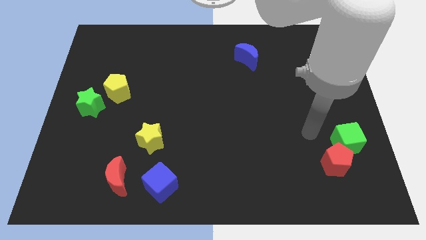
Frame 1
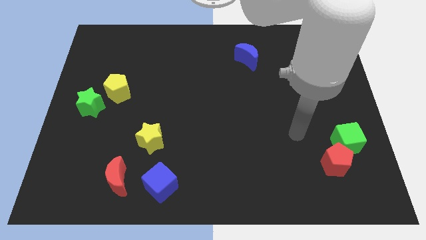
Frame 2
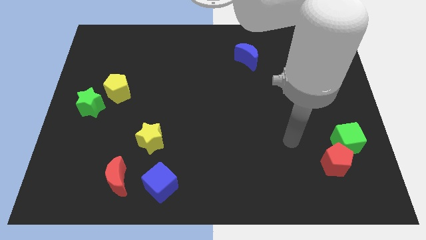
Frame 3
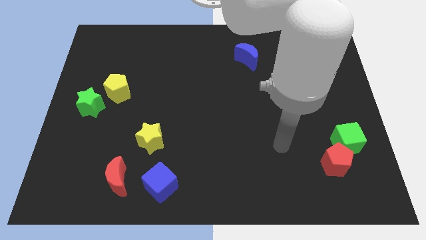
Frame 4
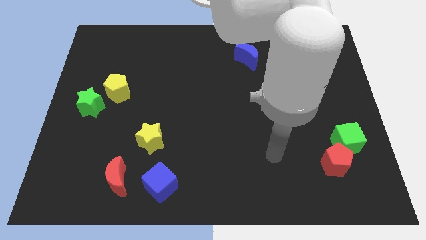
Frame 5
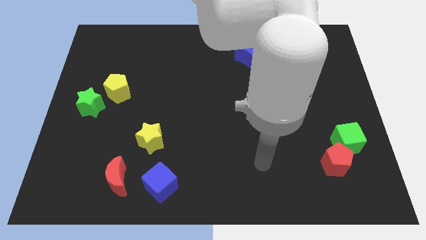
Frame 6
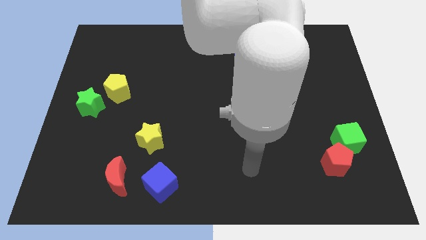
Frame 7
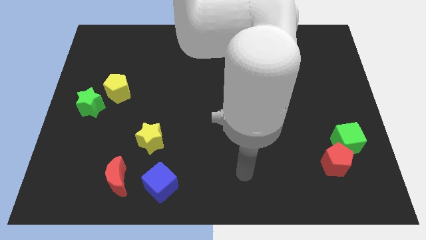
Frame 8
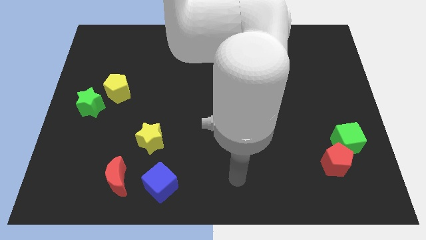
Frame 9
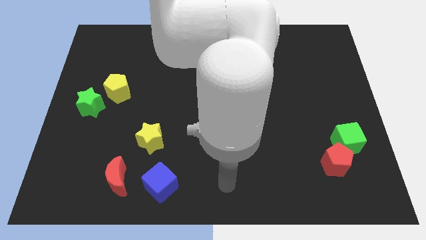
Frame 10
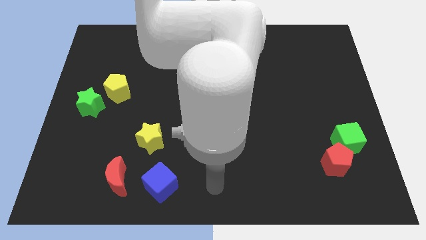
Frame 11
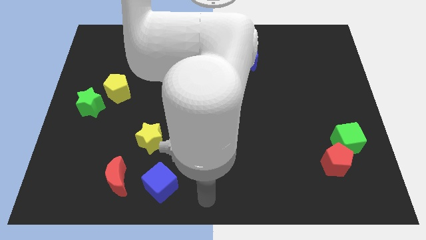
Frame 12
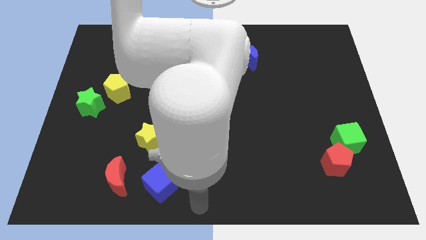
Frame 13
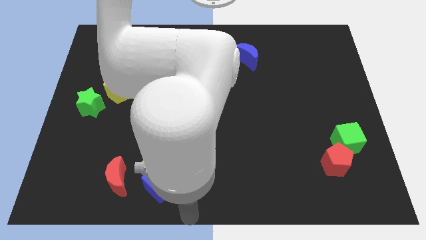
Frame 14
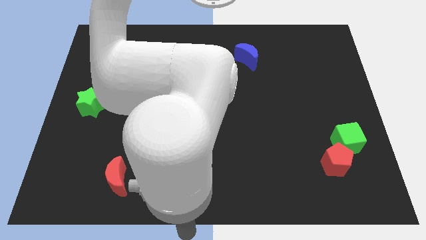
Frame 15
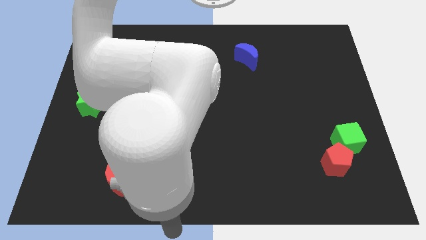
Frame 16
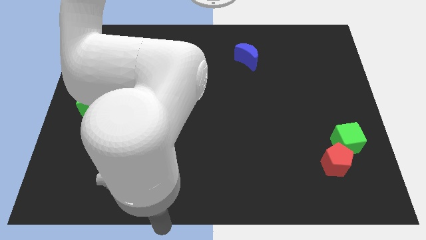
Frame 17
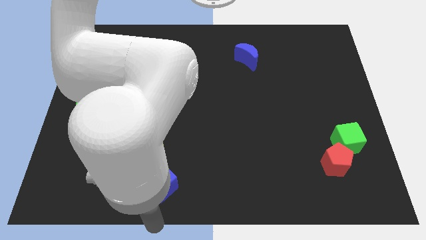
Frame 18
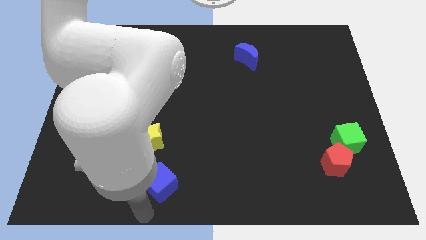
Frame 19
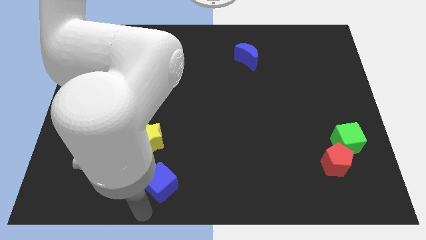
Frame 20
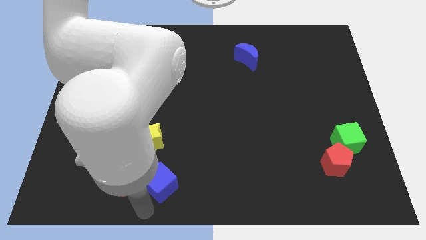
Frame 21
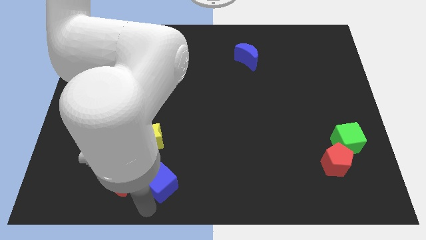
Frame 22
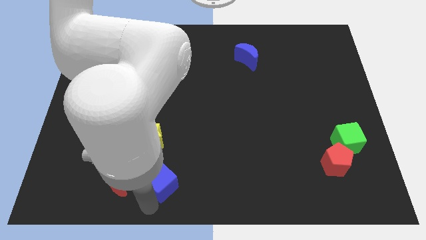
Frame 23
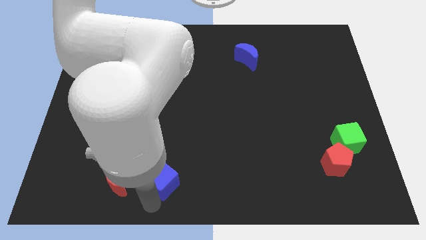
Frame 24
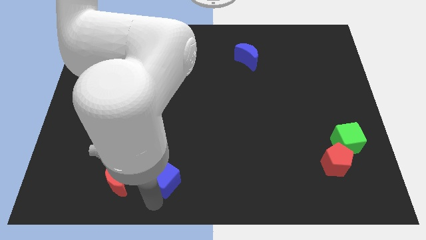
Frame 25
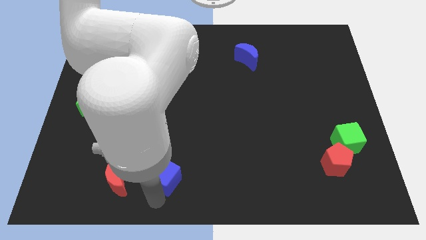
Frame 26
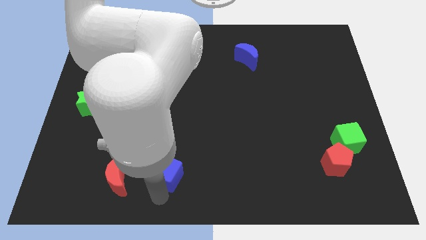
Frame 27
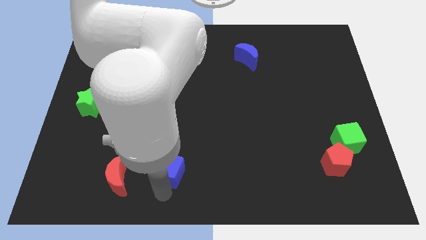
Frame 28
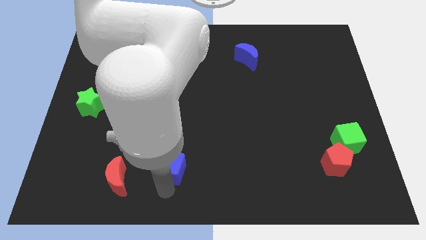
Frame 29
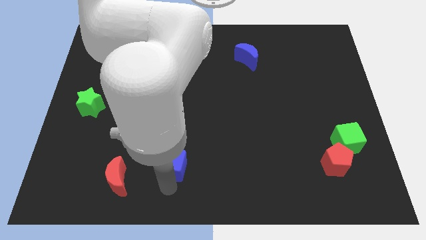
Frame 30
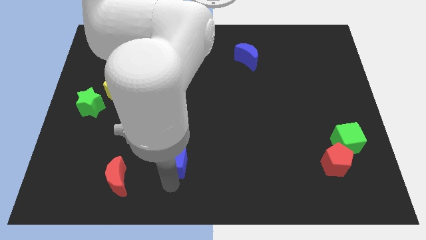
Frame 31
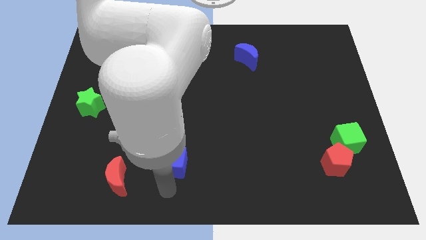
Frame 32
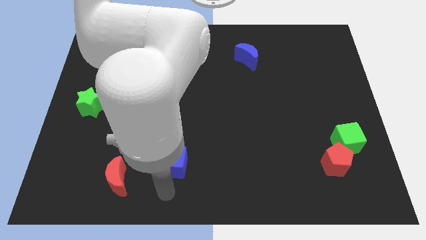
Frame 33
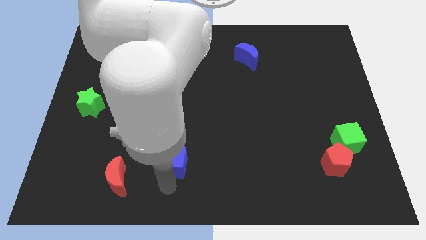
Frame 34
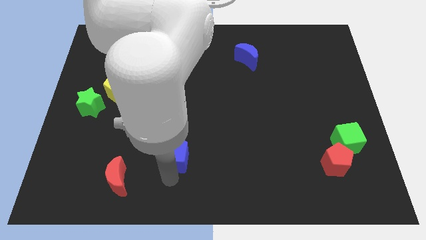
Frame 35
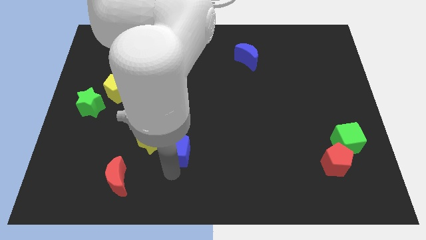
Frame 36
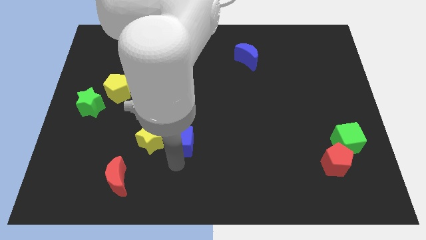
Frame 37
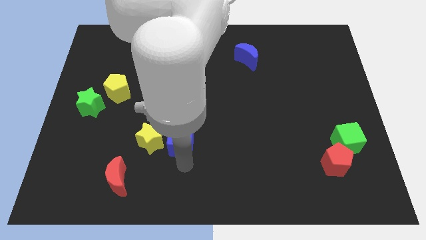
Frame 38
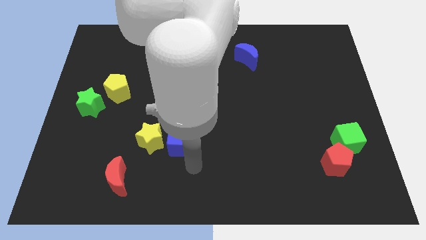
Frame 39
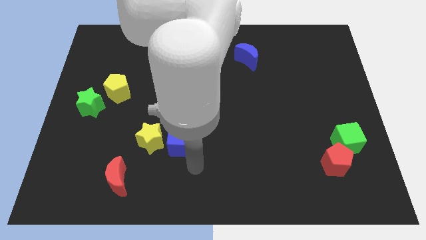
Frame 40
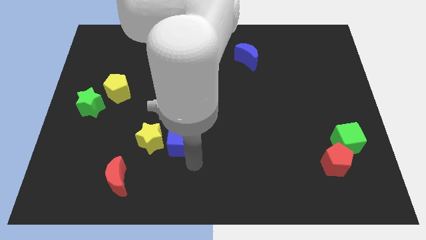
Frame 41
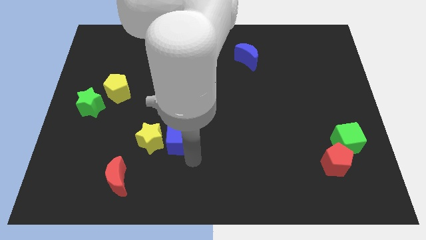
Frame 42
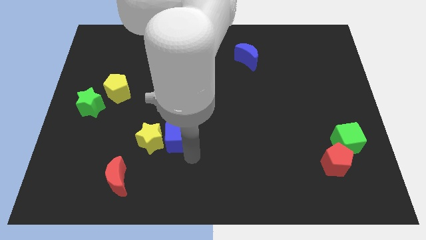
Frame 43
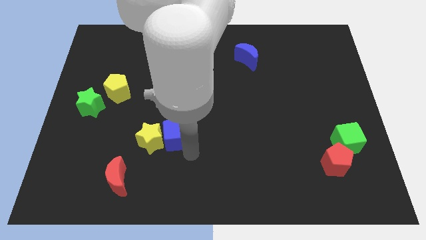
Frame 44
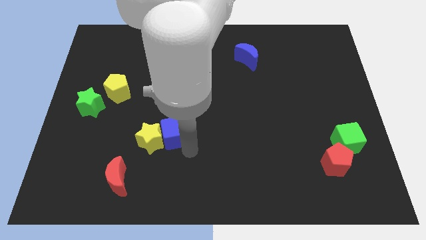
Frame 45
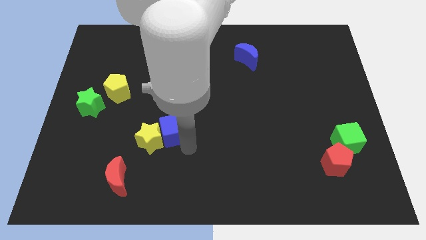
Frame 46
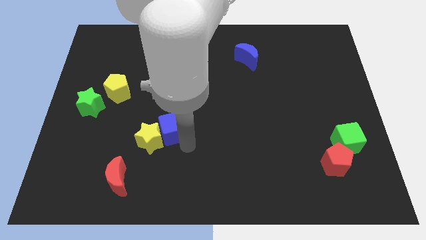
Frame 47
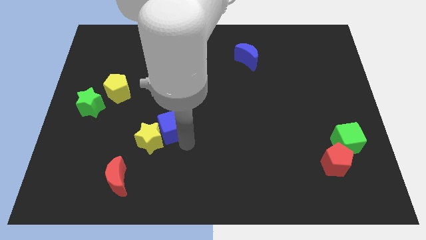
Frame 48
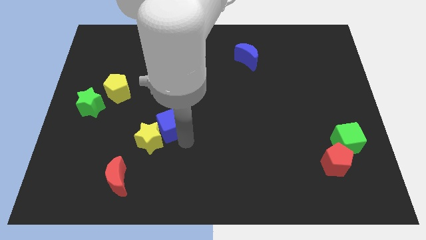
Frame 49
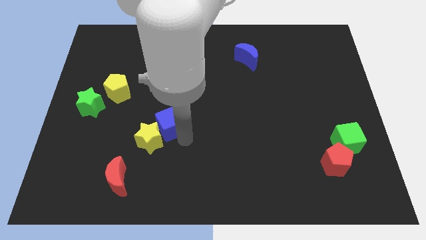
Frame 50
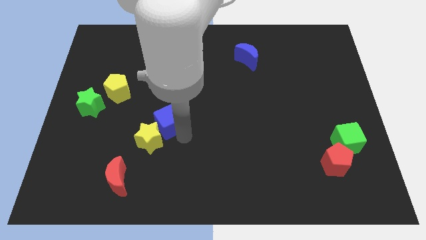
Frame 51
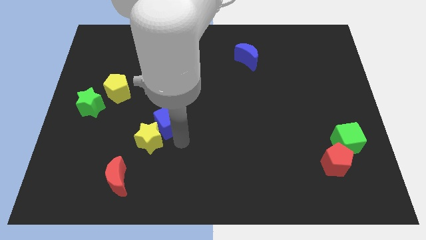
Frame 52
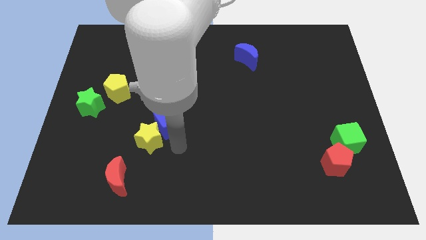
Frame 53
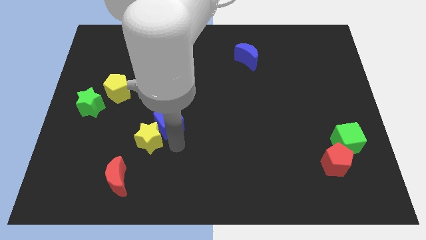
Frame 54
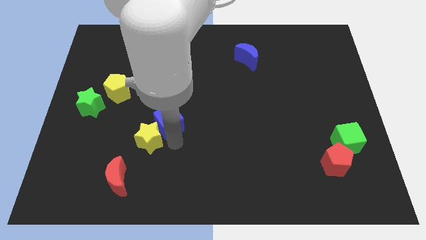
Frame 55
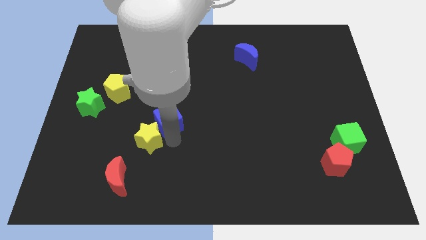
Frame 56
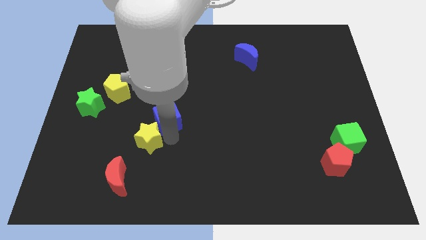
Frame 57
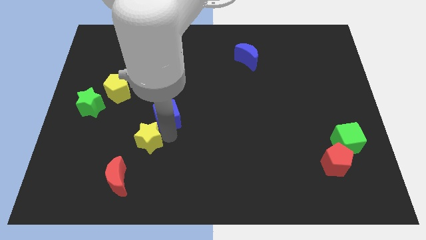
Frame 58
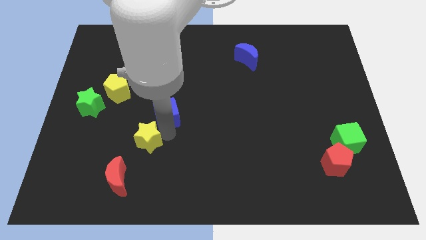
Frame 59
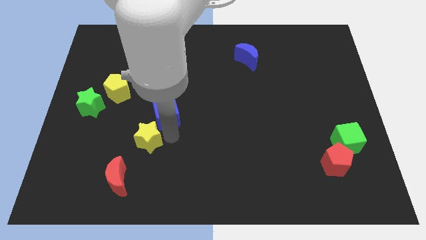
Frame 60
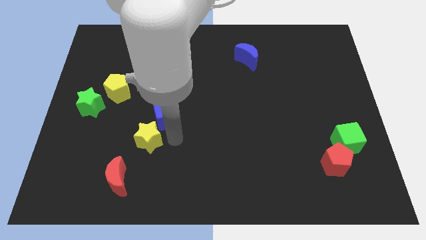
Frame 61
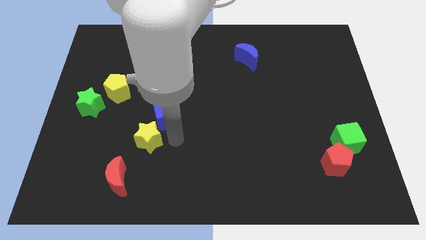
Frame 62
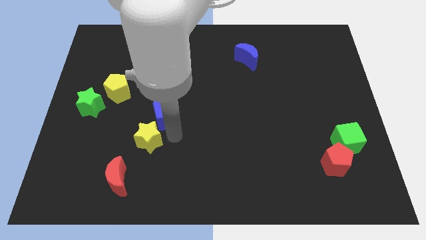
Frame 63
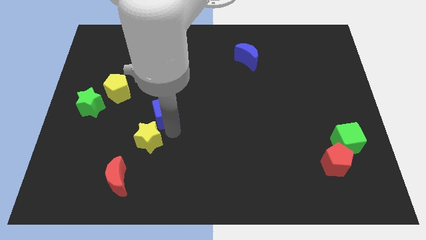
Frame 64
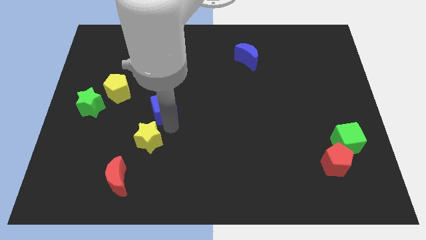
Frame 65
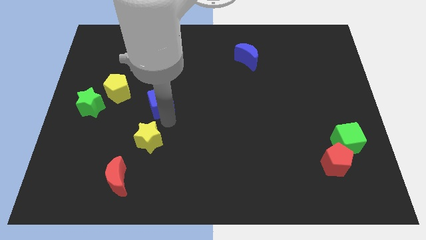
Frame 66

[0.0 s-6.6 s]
push the blue cube right of the yellow pentagon
